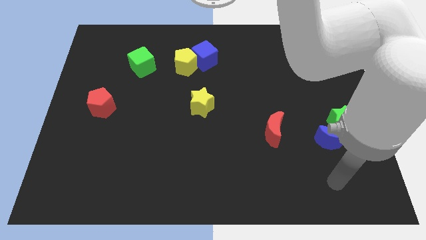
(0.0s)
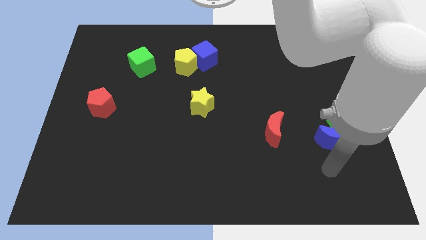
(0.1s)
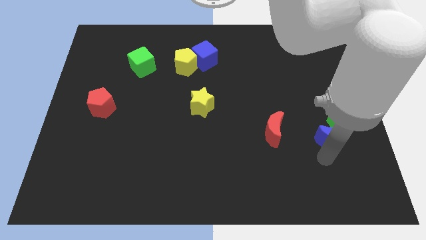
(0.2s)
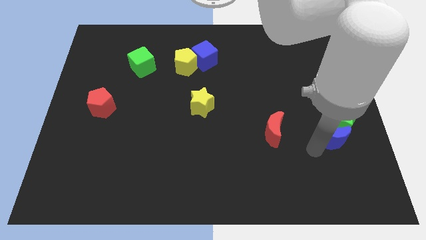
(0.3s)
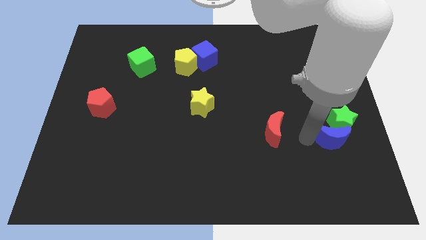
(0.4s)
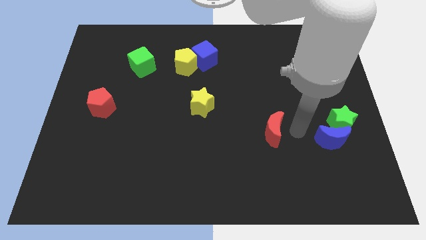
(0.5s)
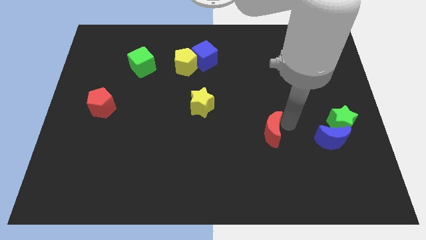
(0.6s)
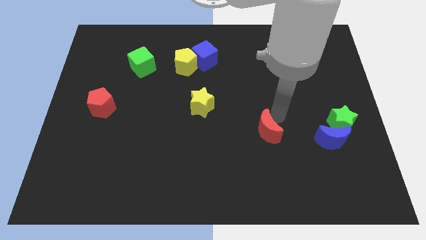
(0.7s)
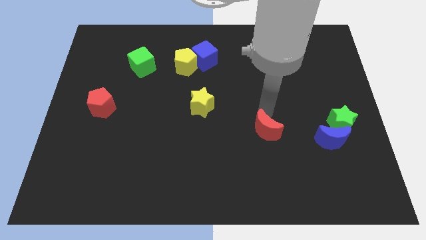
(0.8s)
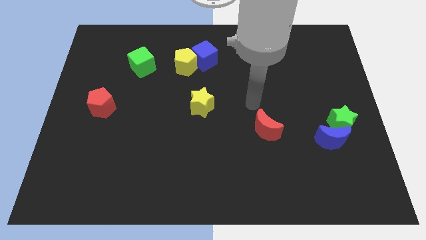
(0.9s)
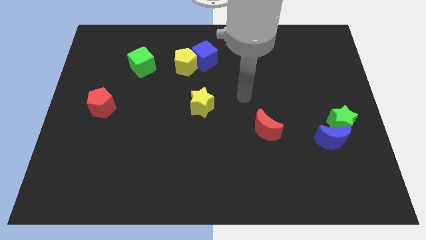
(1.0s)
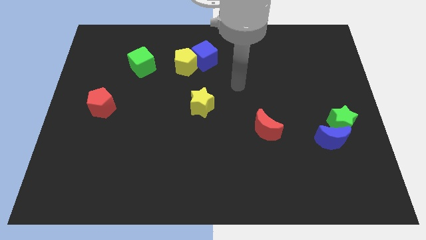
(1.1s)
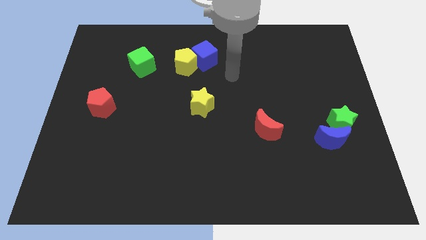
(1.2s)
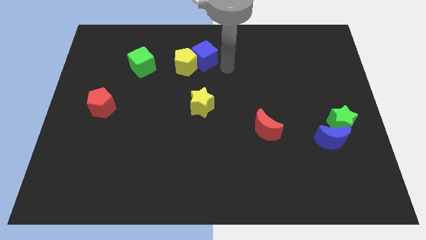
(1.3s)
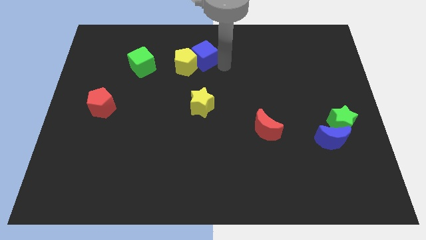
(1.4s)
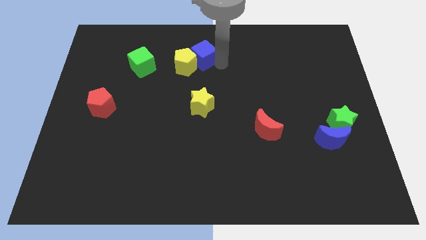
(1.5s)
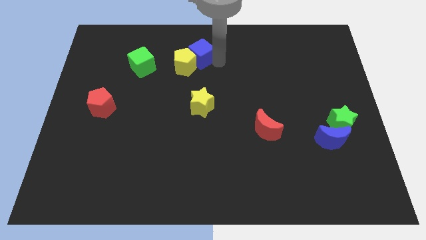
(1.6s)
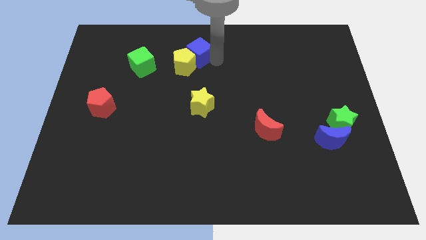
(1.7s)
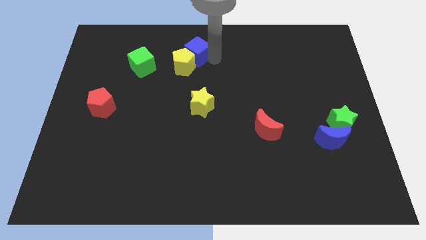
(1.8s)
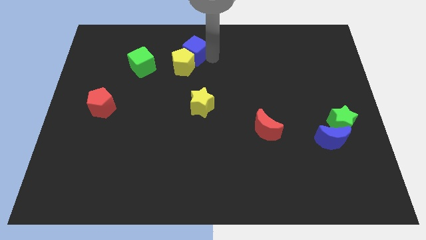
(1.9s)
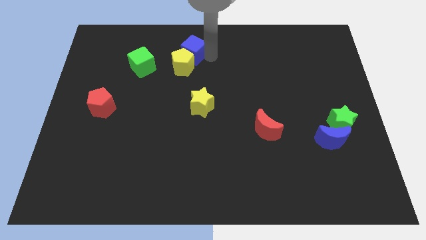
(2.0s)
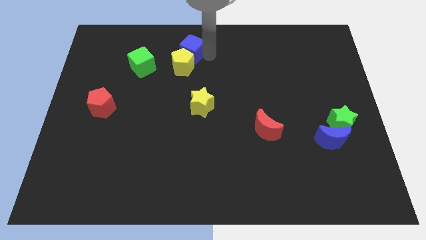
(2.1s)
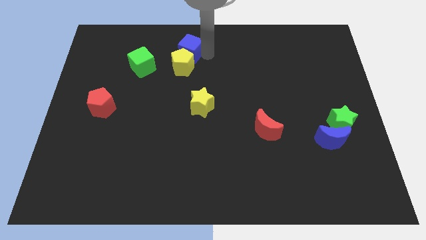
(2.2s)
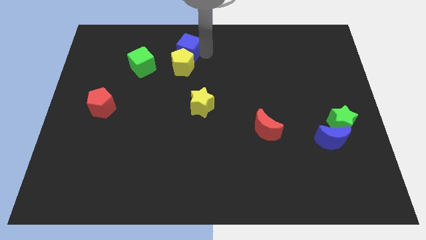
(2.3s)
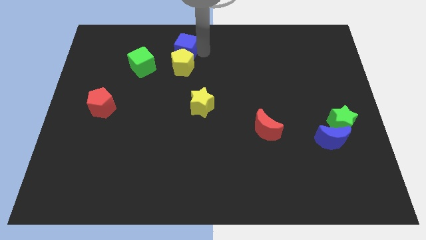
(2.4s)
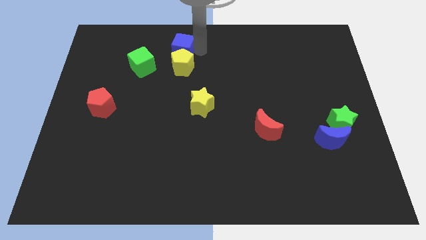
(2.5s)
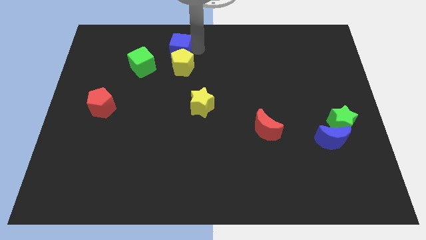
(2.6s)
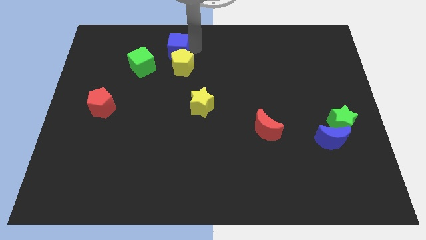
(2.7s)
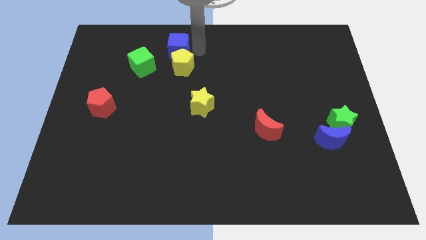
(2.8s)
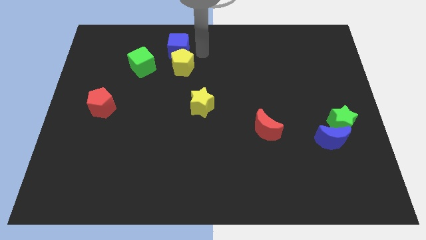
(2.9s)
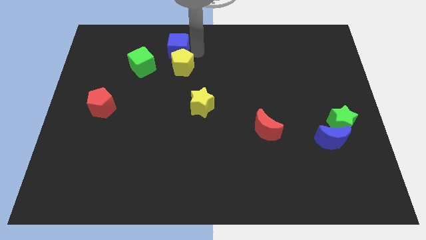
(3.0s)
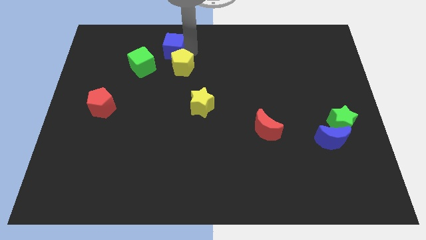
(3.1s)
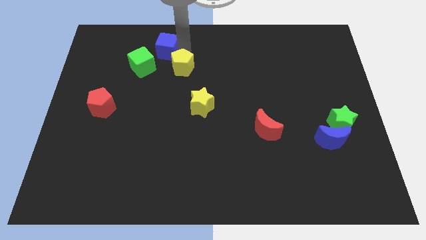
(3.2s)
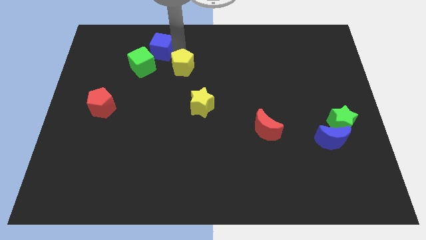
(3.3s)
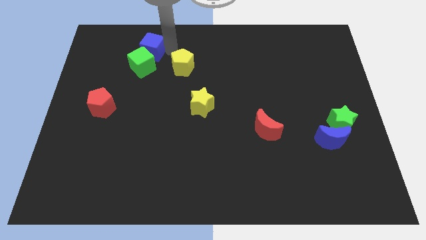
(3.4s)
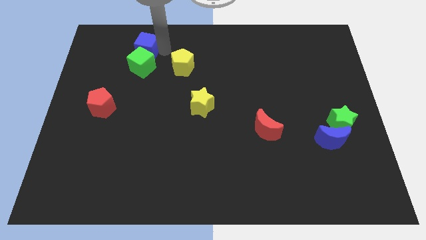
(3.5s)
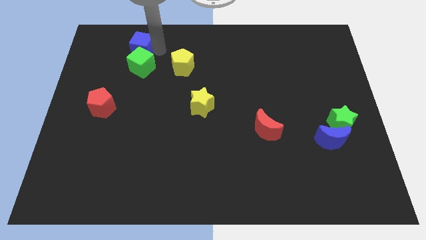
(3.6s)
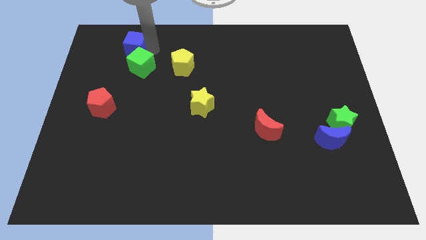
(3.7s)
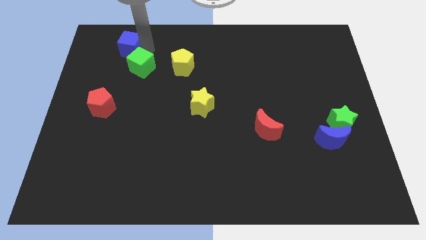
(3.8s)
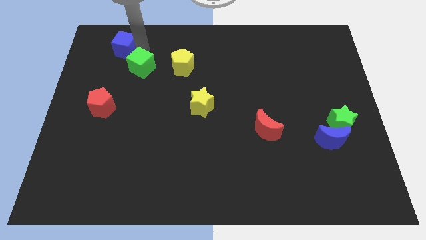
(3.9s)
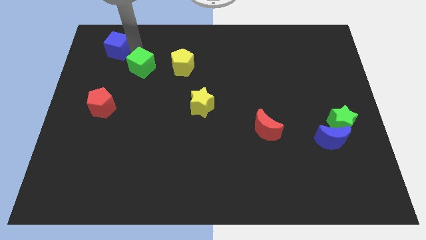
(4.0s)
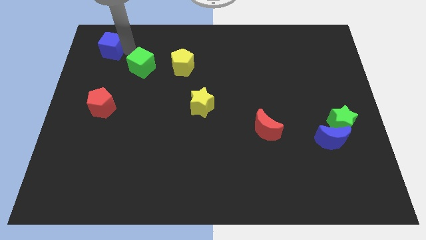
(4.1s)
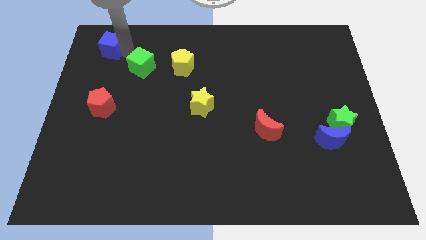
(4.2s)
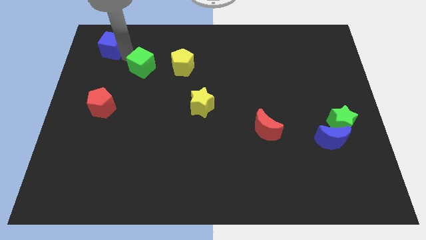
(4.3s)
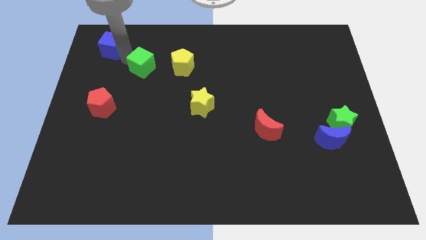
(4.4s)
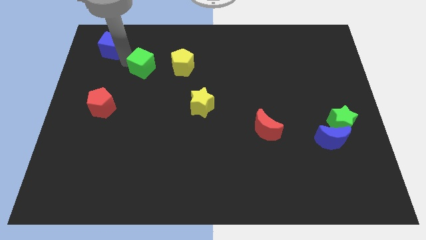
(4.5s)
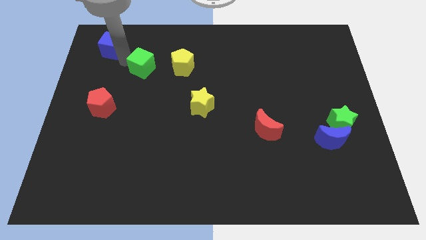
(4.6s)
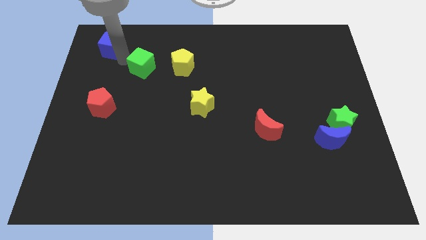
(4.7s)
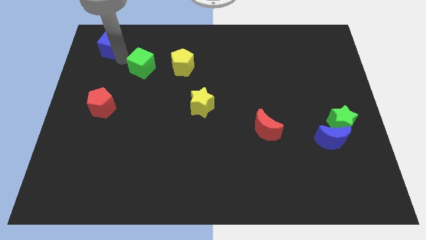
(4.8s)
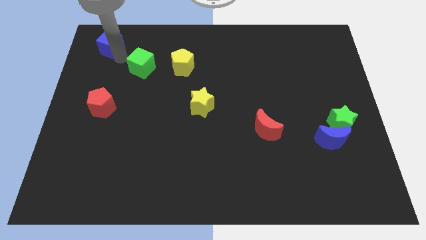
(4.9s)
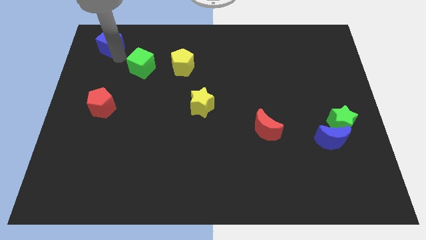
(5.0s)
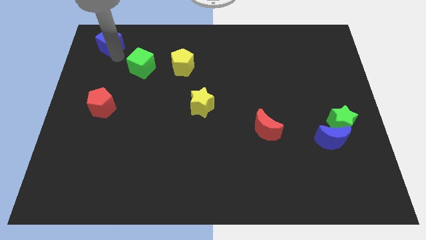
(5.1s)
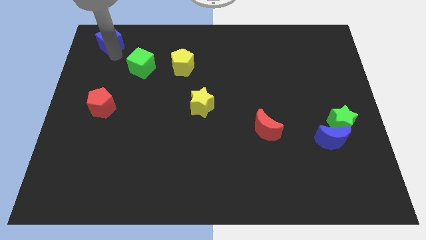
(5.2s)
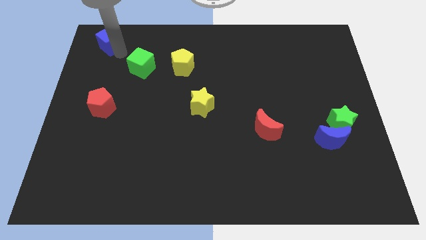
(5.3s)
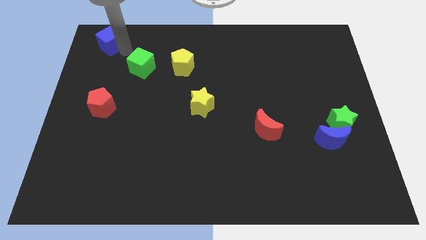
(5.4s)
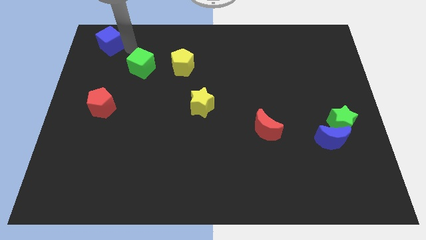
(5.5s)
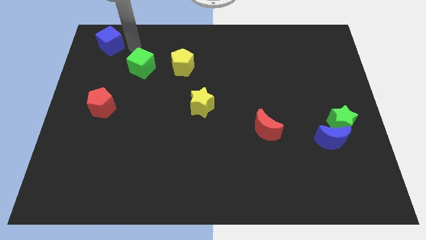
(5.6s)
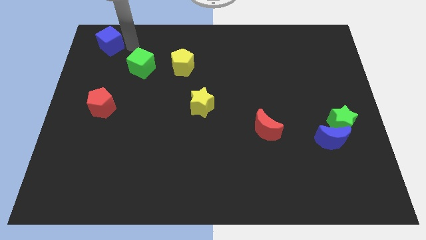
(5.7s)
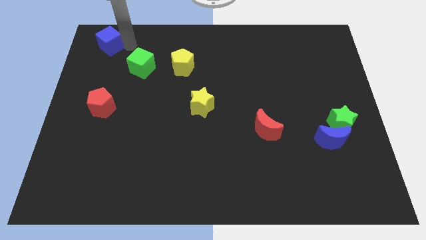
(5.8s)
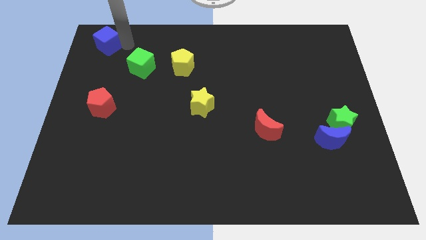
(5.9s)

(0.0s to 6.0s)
push the blue cube to the upper left corner

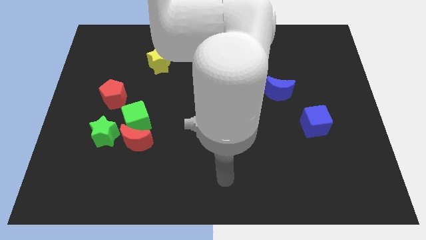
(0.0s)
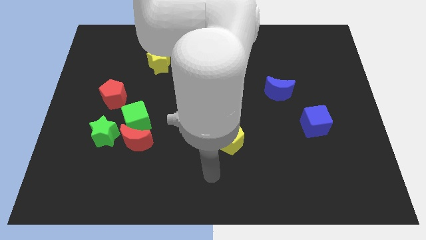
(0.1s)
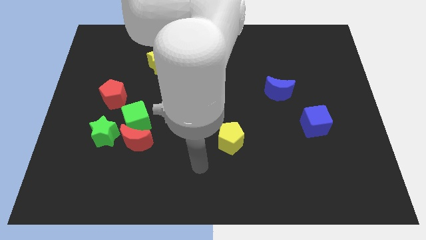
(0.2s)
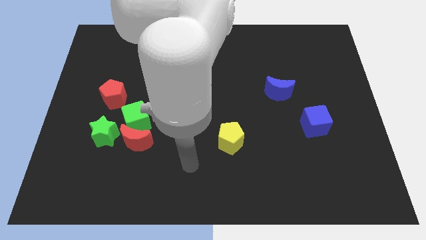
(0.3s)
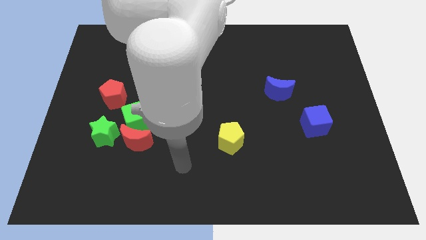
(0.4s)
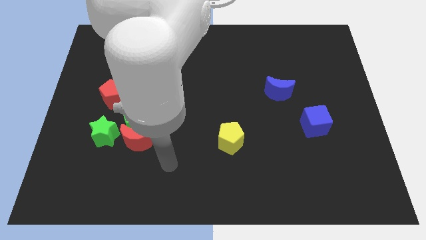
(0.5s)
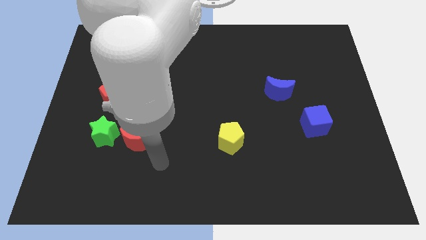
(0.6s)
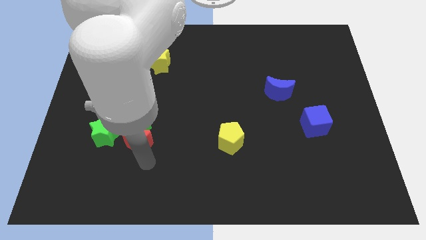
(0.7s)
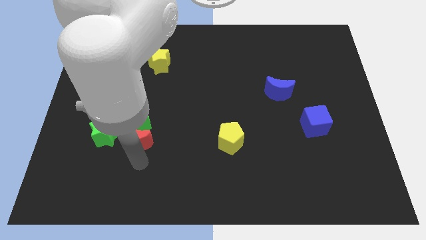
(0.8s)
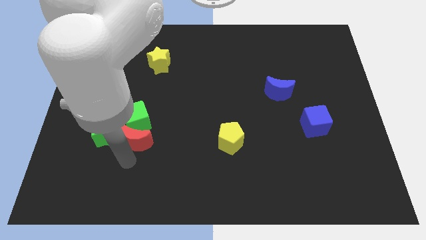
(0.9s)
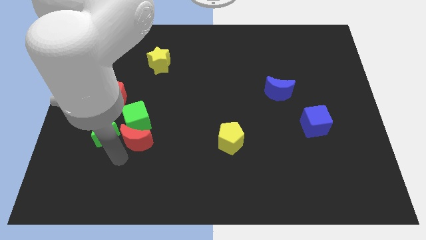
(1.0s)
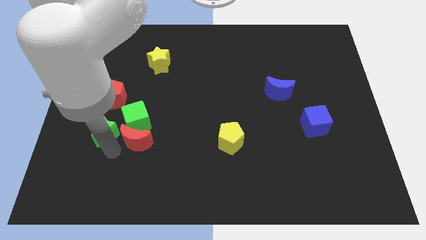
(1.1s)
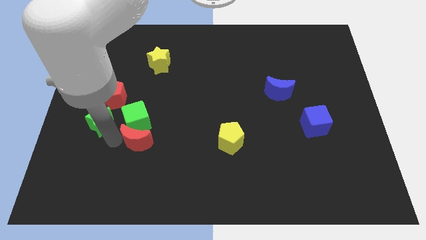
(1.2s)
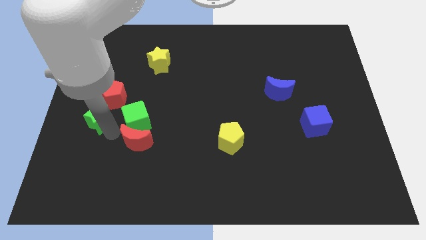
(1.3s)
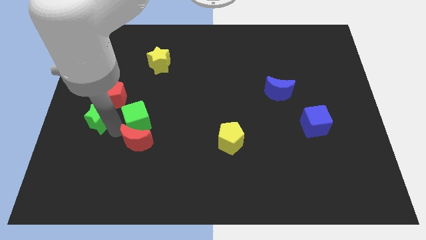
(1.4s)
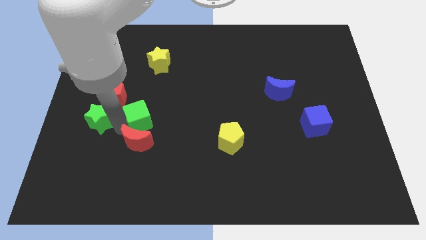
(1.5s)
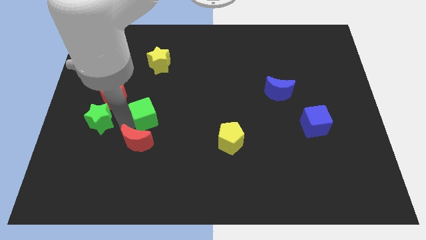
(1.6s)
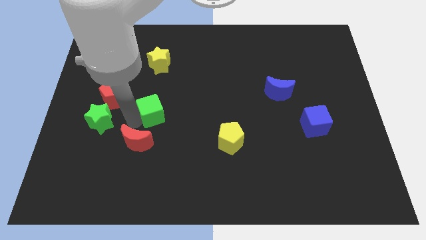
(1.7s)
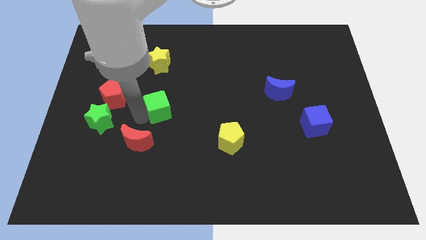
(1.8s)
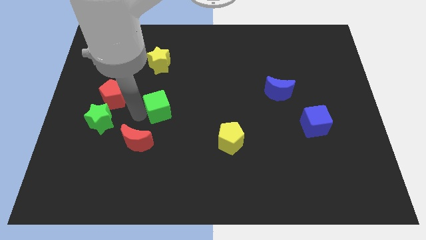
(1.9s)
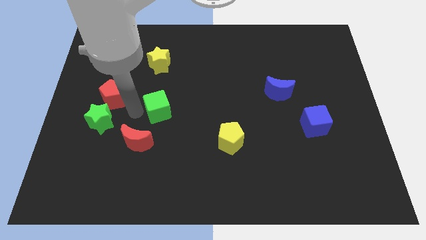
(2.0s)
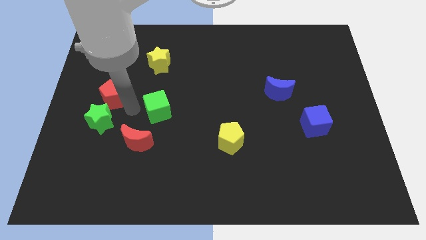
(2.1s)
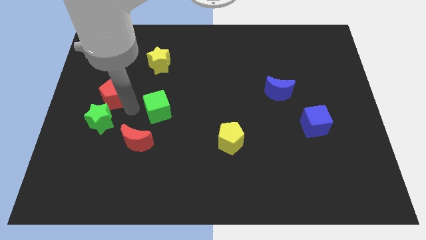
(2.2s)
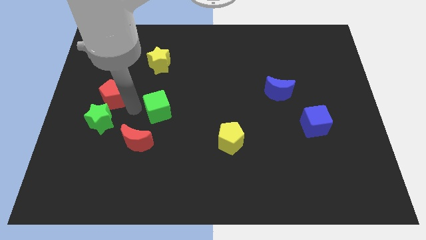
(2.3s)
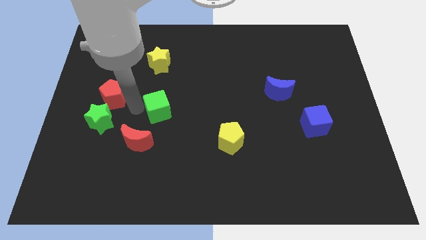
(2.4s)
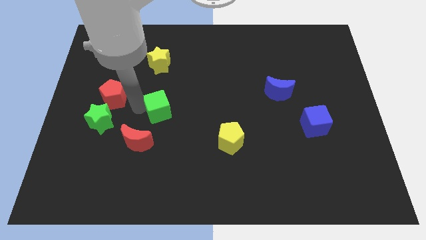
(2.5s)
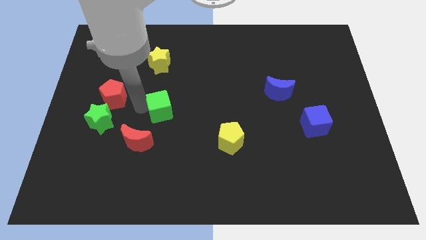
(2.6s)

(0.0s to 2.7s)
move the green cube to the center of the board
